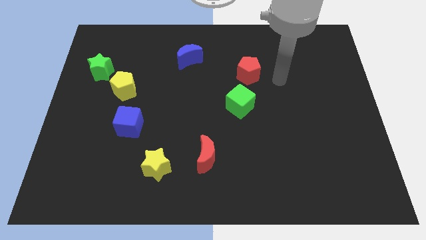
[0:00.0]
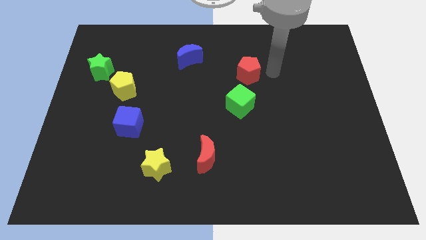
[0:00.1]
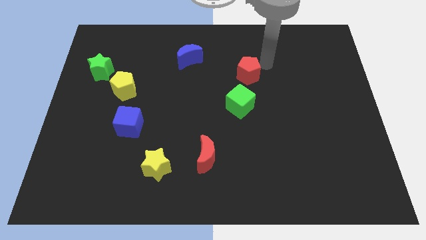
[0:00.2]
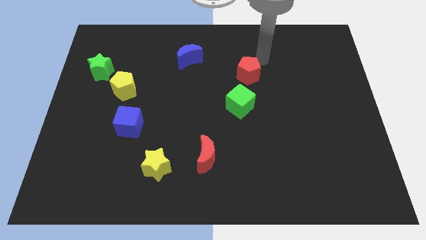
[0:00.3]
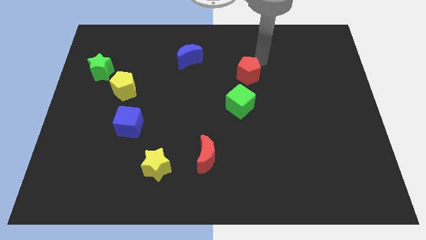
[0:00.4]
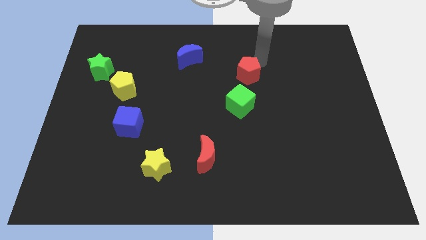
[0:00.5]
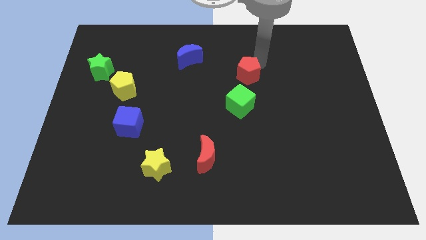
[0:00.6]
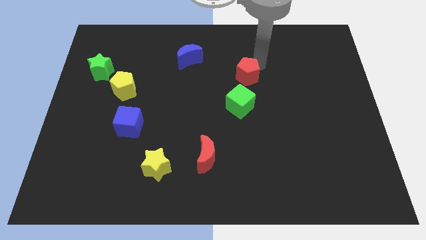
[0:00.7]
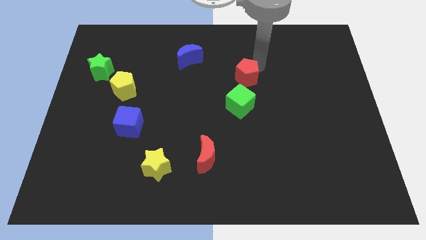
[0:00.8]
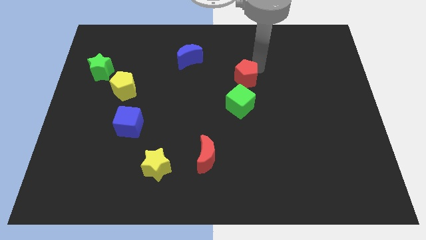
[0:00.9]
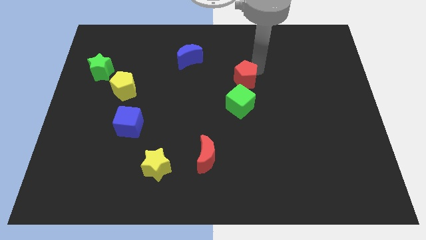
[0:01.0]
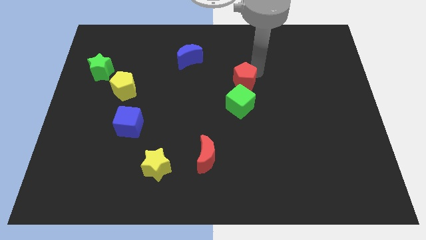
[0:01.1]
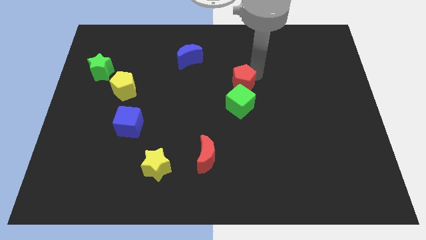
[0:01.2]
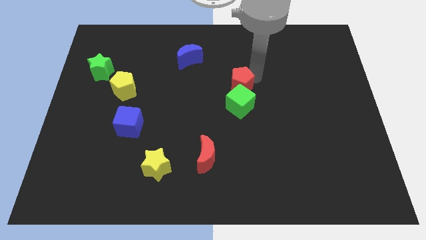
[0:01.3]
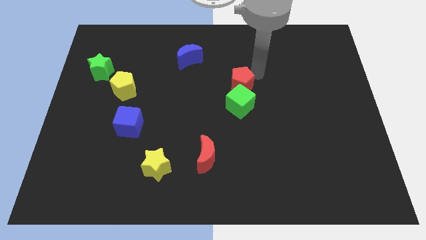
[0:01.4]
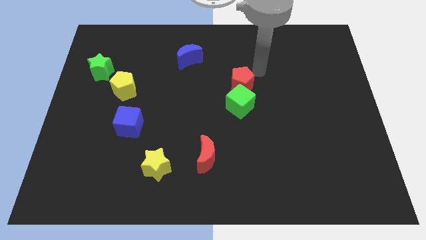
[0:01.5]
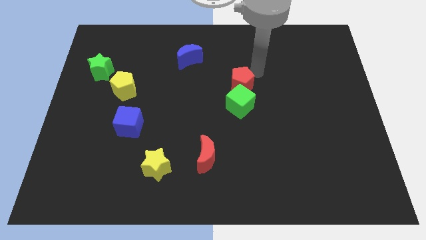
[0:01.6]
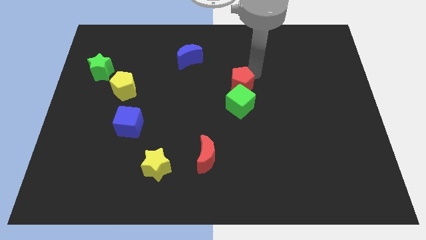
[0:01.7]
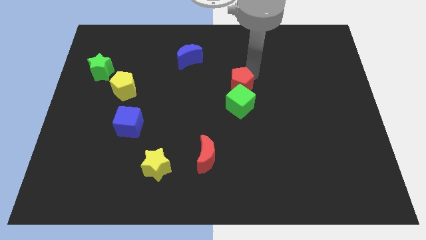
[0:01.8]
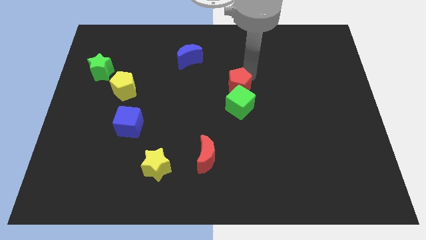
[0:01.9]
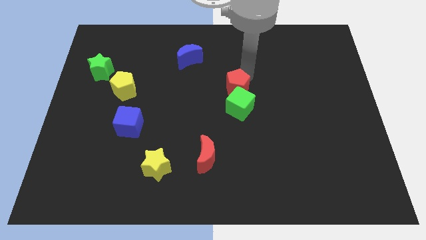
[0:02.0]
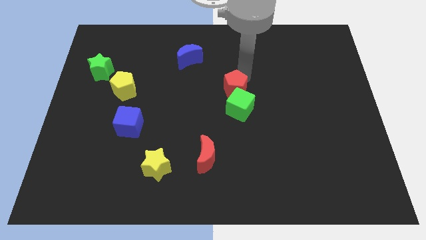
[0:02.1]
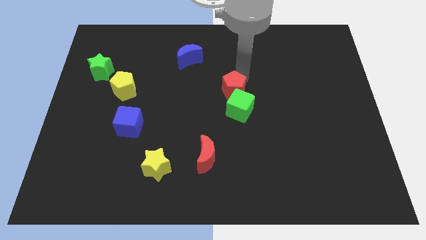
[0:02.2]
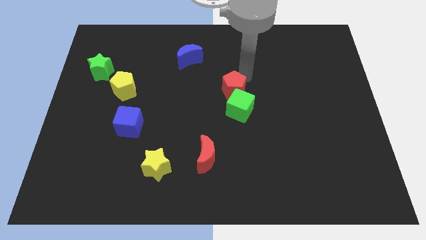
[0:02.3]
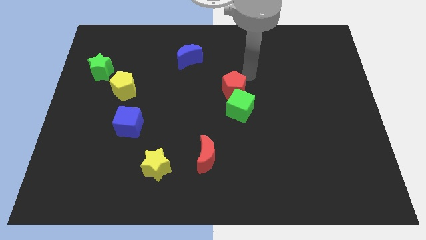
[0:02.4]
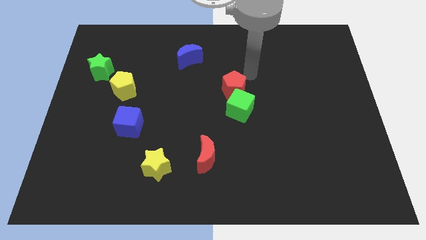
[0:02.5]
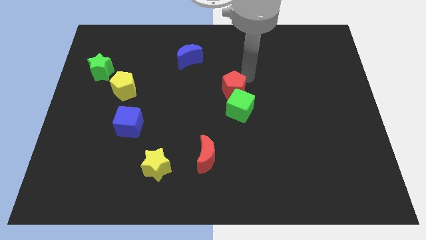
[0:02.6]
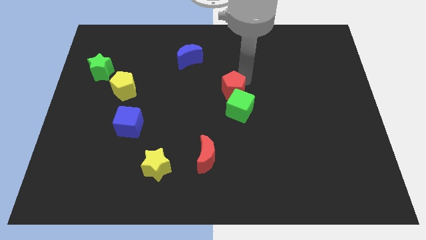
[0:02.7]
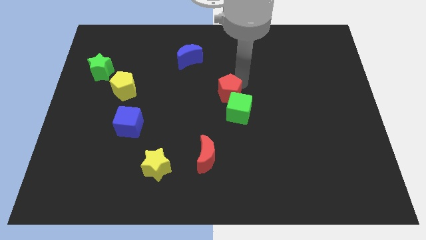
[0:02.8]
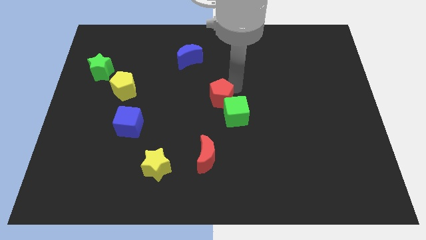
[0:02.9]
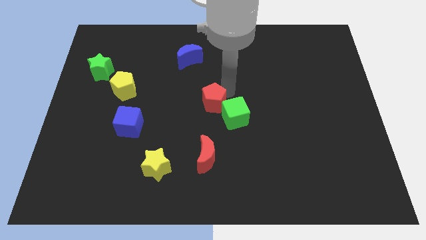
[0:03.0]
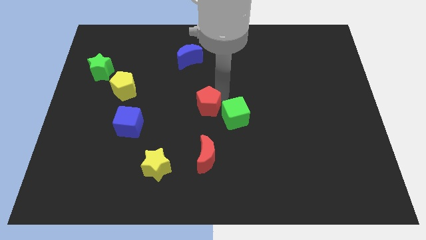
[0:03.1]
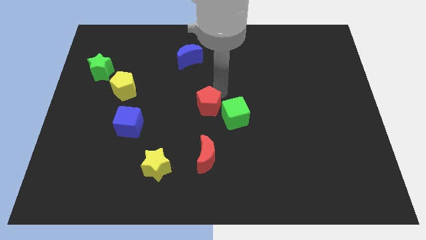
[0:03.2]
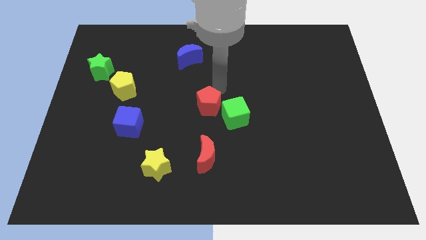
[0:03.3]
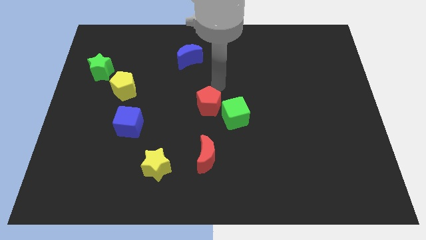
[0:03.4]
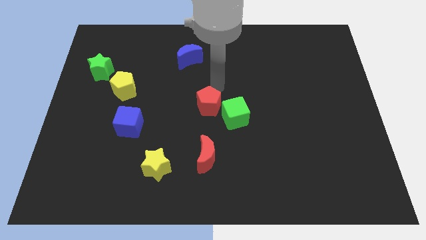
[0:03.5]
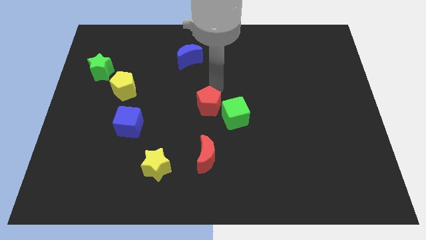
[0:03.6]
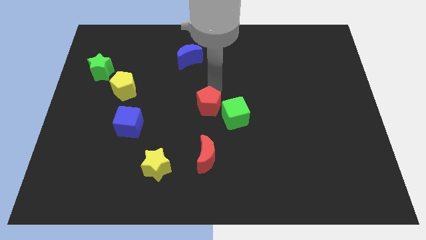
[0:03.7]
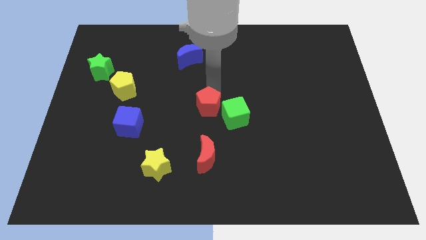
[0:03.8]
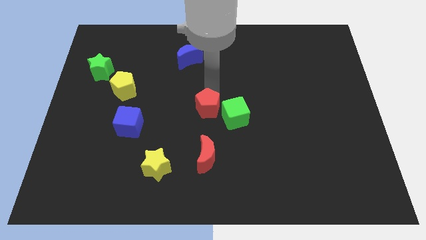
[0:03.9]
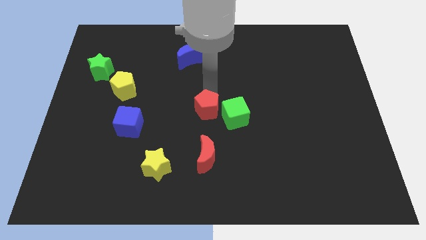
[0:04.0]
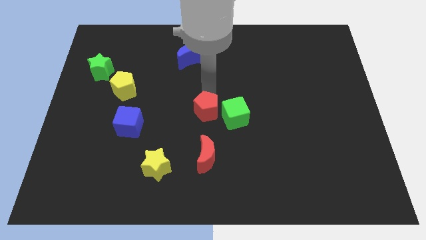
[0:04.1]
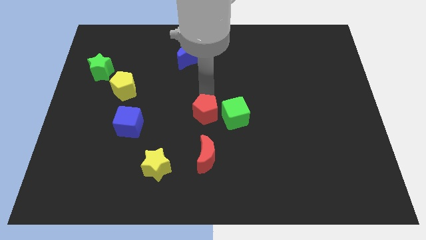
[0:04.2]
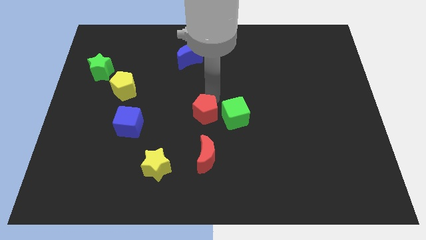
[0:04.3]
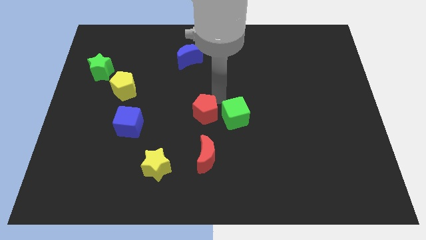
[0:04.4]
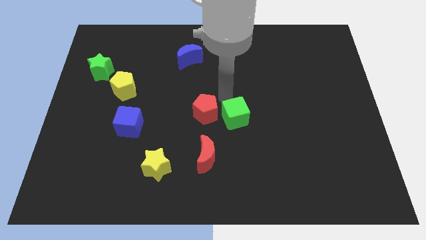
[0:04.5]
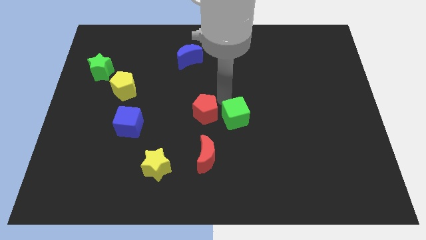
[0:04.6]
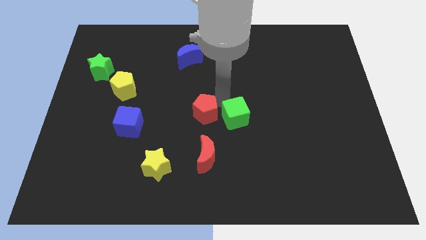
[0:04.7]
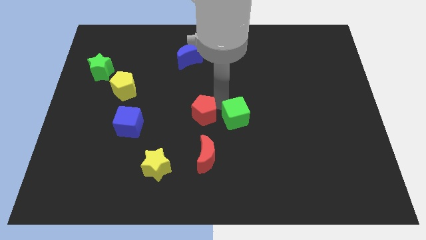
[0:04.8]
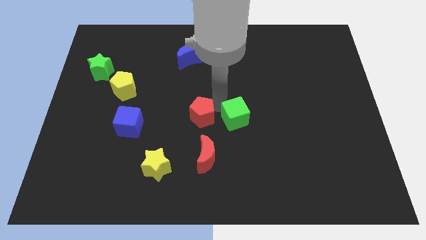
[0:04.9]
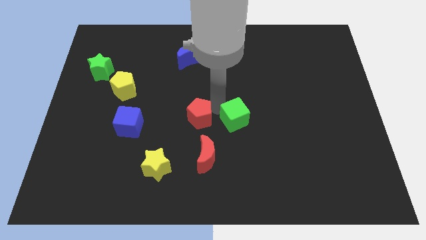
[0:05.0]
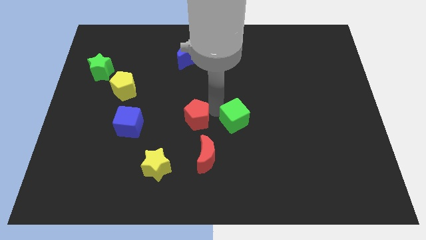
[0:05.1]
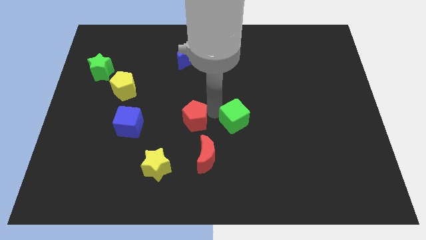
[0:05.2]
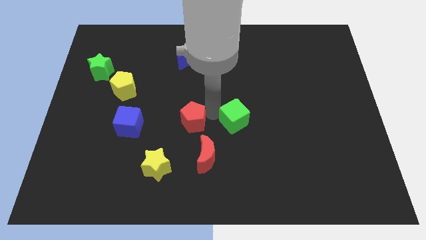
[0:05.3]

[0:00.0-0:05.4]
slide the red pentagon down and left

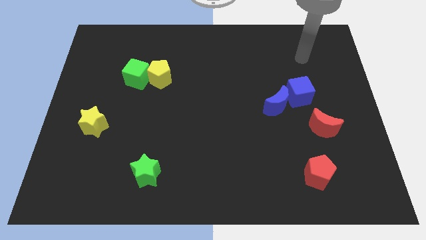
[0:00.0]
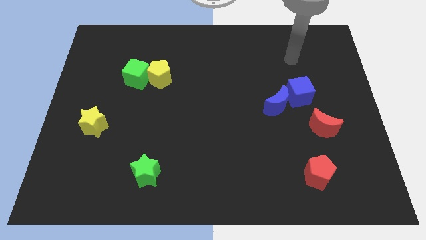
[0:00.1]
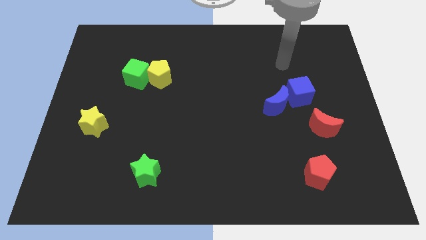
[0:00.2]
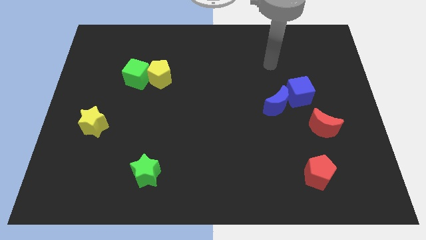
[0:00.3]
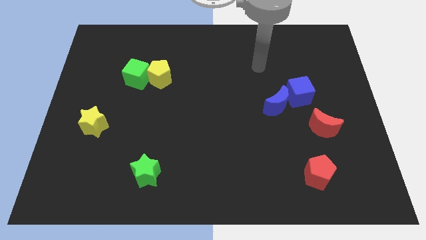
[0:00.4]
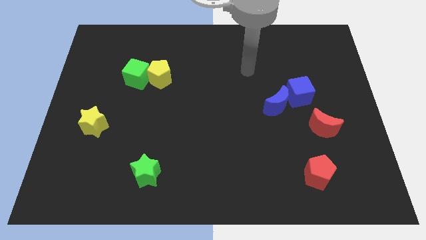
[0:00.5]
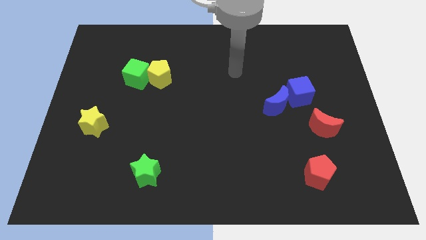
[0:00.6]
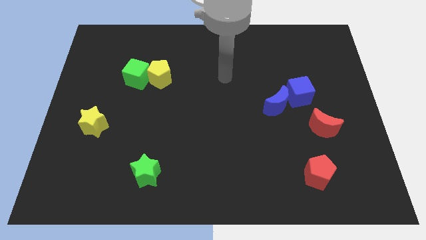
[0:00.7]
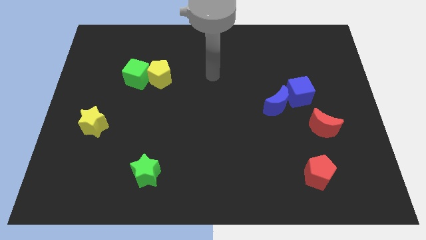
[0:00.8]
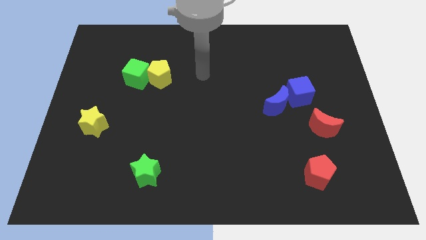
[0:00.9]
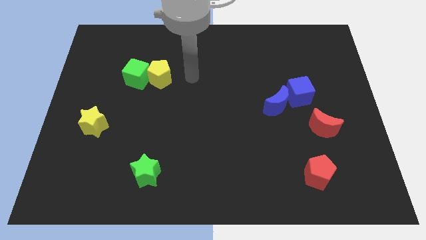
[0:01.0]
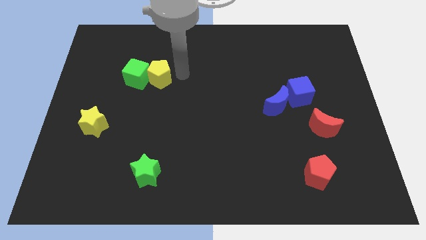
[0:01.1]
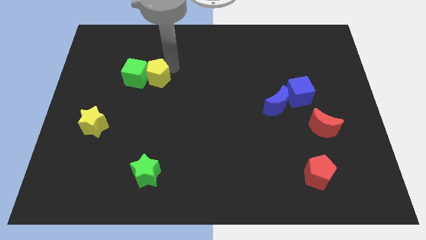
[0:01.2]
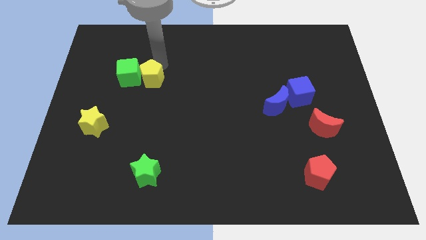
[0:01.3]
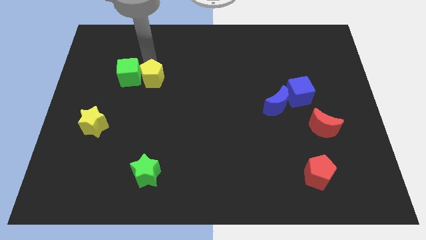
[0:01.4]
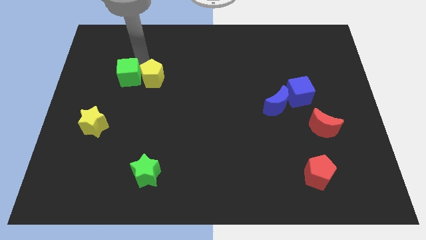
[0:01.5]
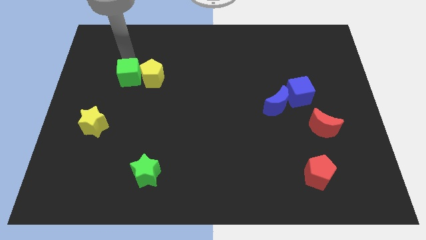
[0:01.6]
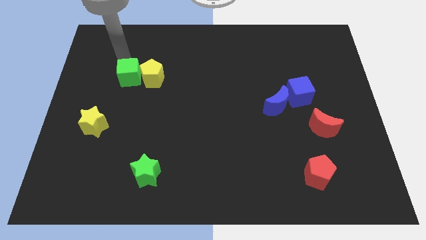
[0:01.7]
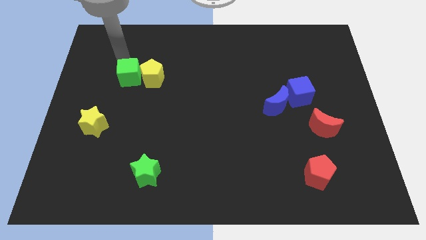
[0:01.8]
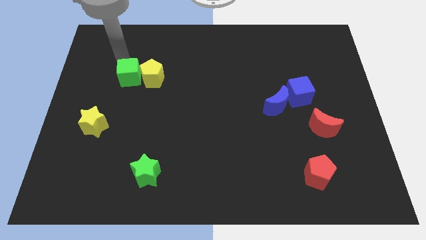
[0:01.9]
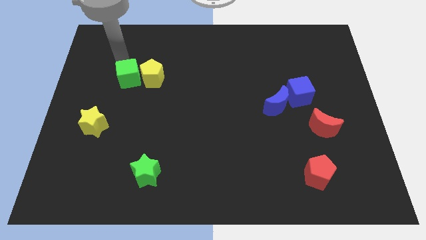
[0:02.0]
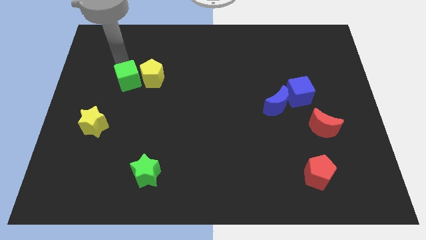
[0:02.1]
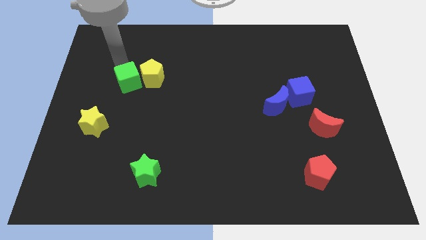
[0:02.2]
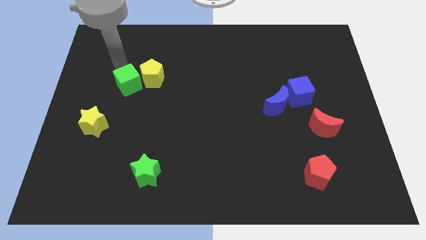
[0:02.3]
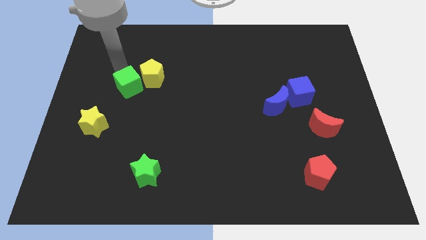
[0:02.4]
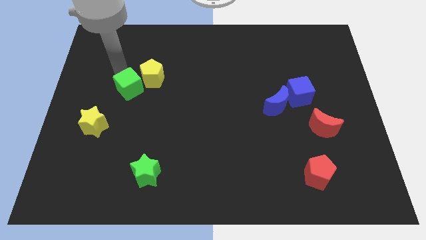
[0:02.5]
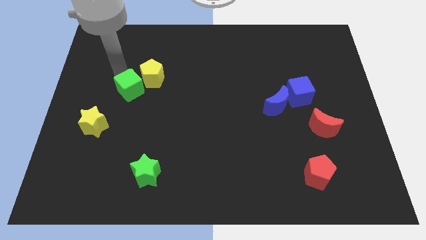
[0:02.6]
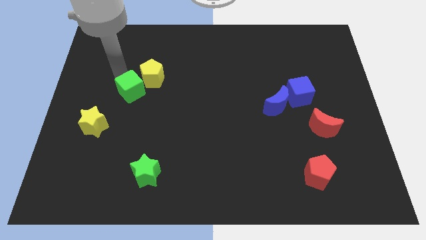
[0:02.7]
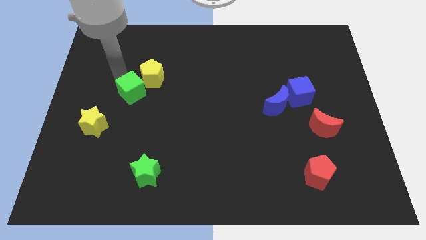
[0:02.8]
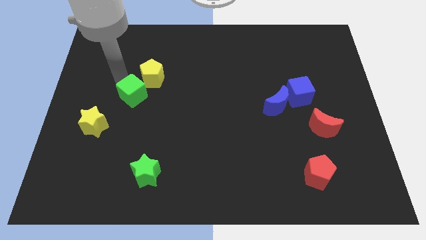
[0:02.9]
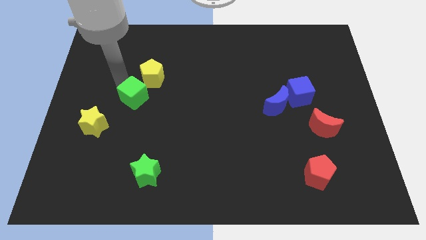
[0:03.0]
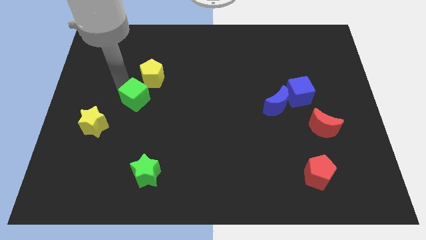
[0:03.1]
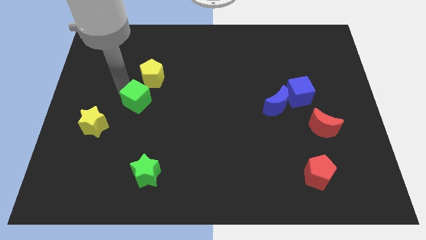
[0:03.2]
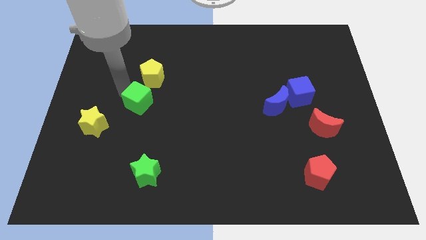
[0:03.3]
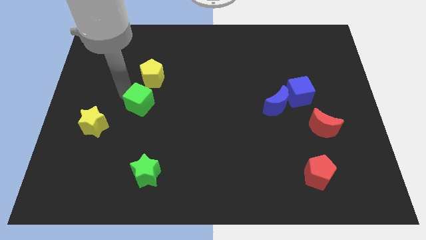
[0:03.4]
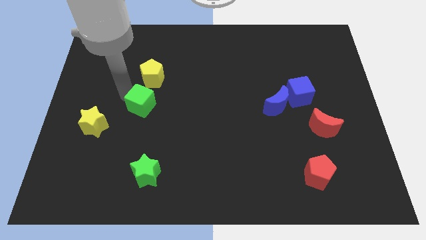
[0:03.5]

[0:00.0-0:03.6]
push the green cube downwards and right diagonally somewhat
